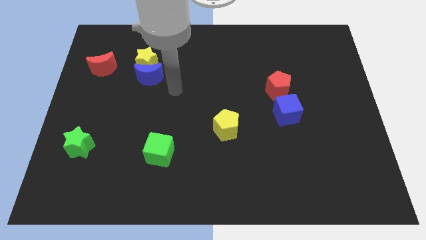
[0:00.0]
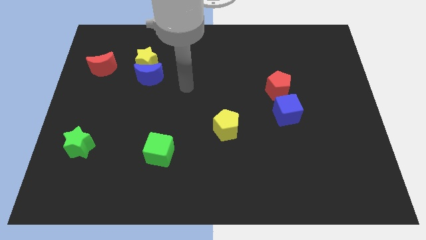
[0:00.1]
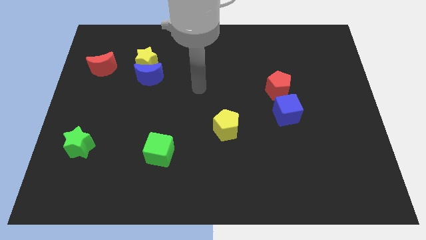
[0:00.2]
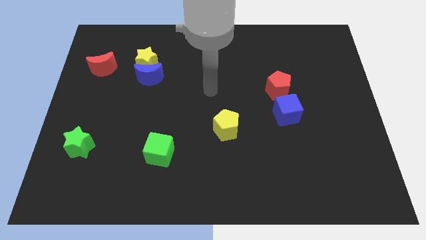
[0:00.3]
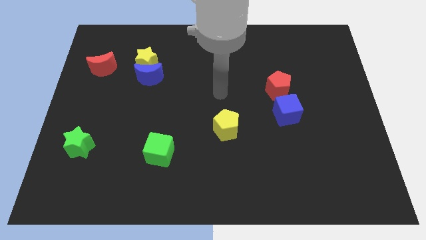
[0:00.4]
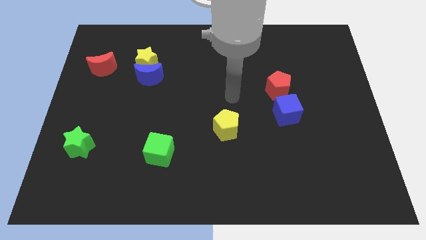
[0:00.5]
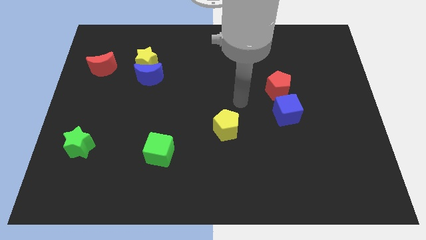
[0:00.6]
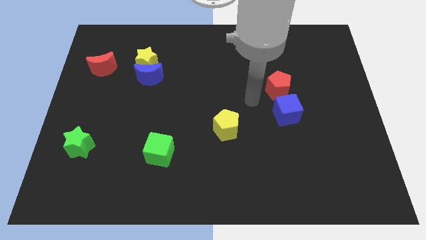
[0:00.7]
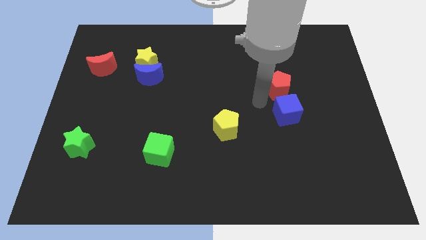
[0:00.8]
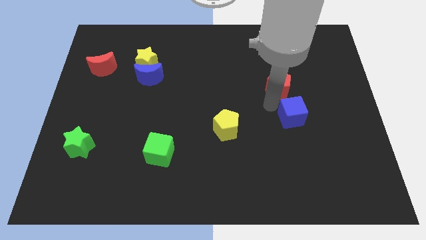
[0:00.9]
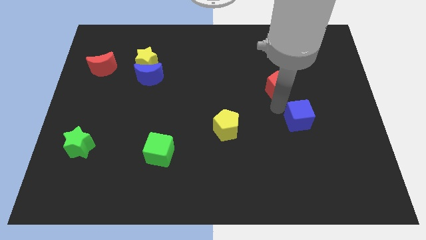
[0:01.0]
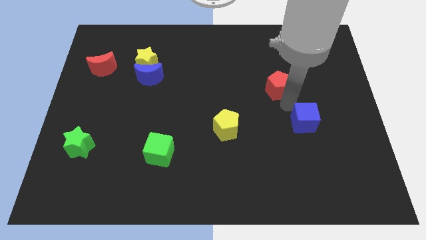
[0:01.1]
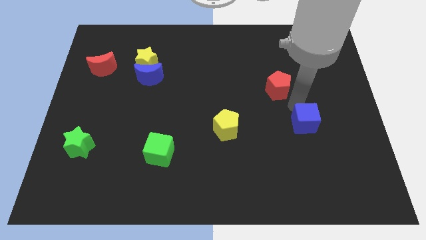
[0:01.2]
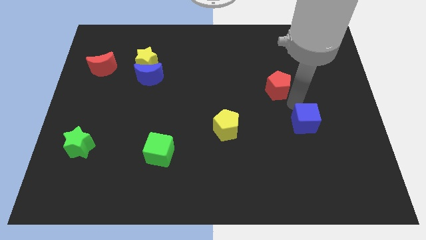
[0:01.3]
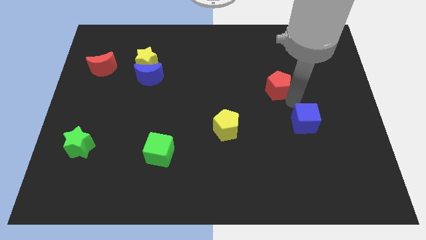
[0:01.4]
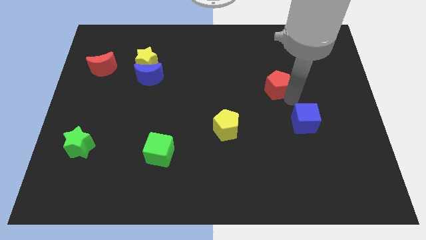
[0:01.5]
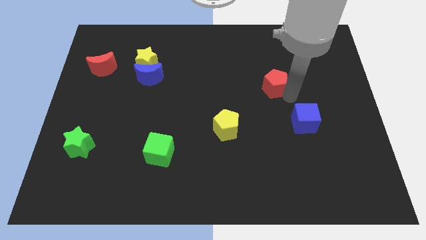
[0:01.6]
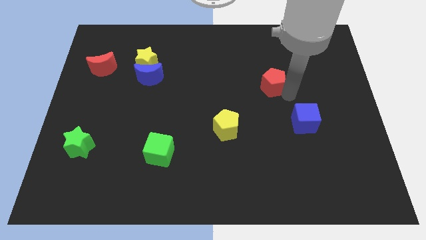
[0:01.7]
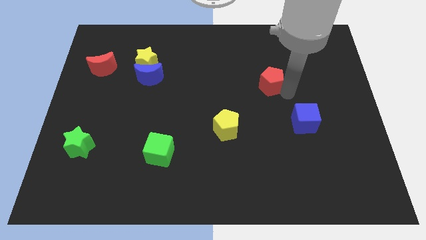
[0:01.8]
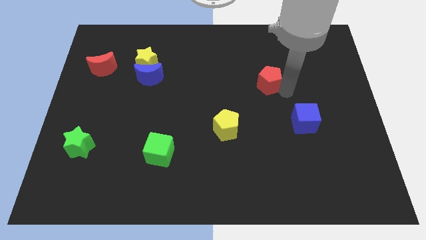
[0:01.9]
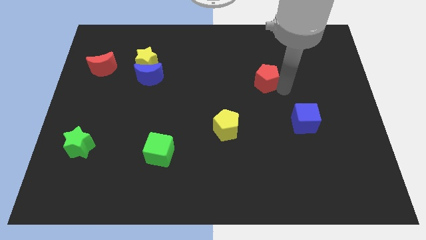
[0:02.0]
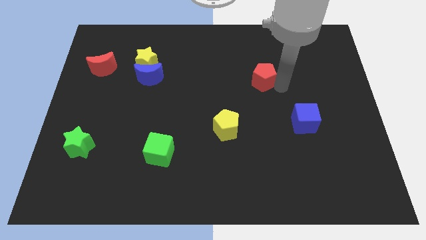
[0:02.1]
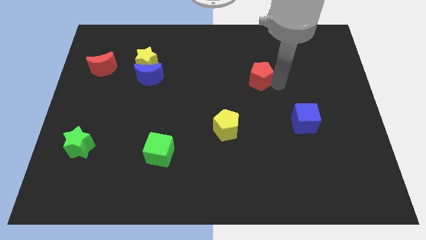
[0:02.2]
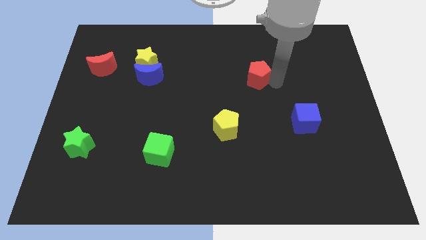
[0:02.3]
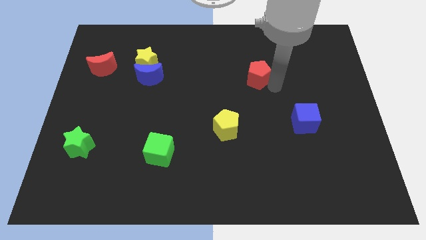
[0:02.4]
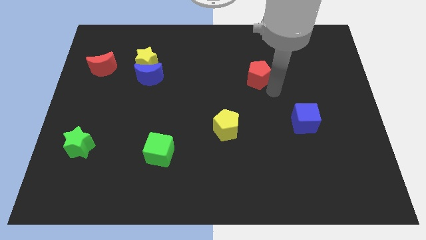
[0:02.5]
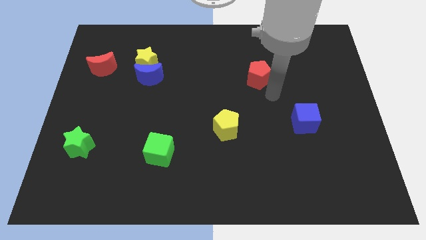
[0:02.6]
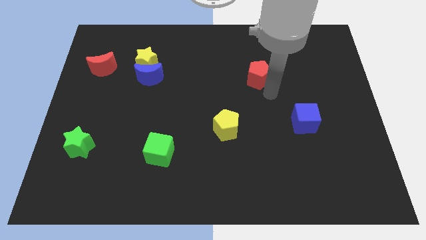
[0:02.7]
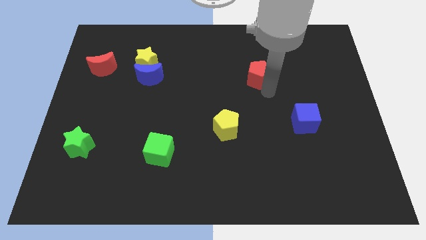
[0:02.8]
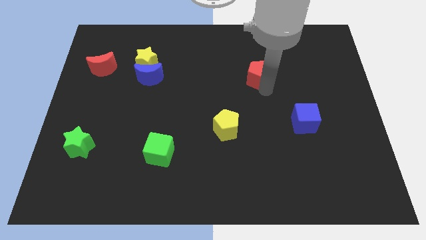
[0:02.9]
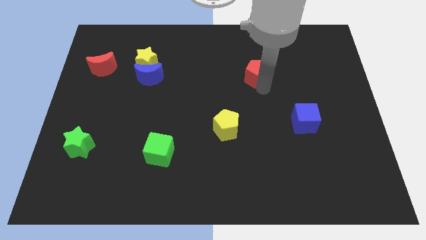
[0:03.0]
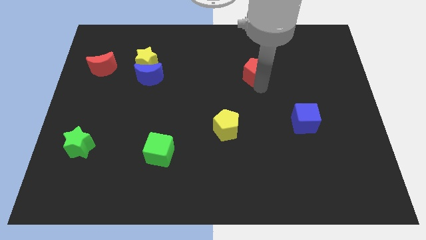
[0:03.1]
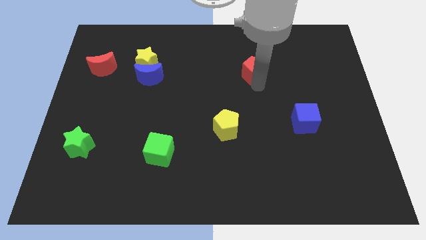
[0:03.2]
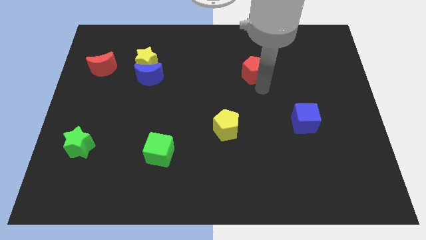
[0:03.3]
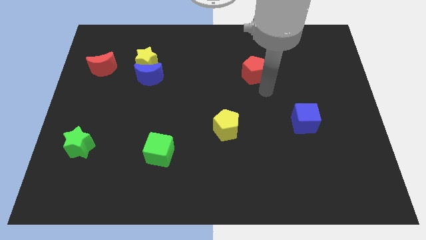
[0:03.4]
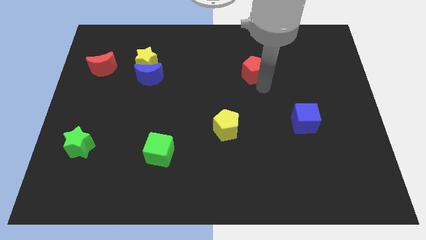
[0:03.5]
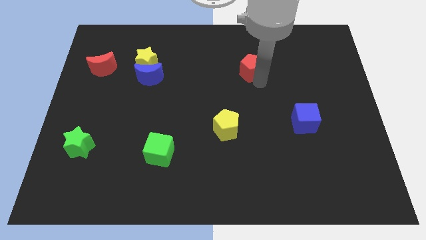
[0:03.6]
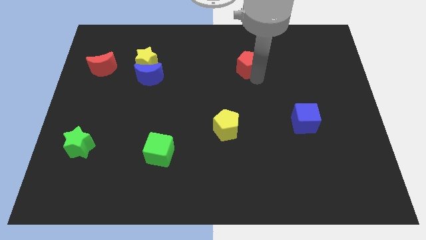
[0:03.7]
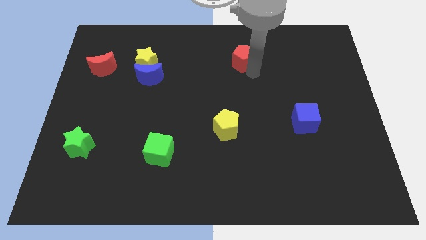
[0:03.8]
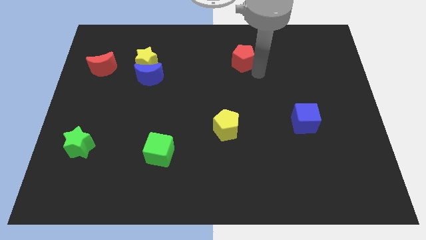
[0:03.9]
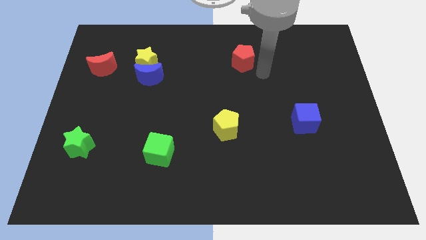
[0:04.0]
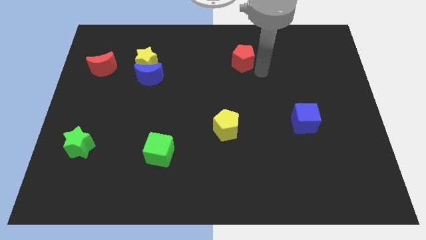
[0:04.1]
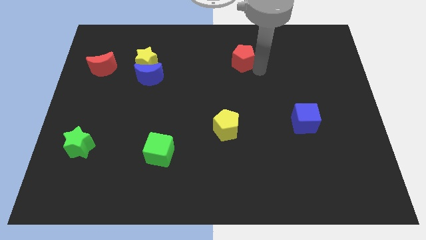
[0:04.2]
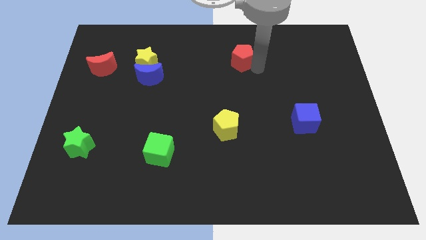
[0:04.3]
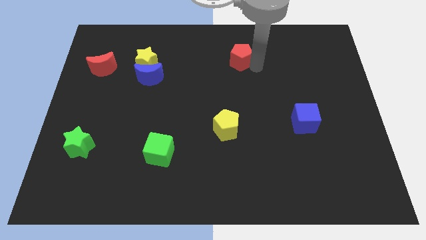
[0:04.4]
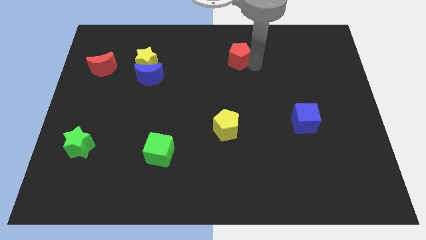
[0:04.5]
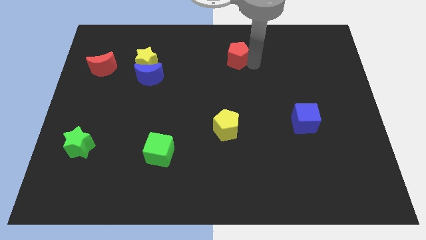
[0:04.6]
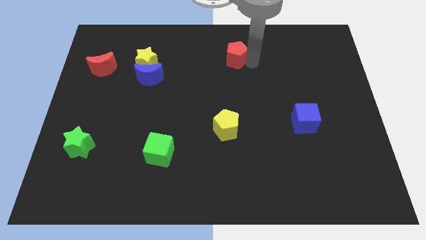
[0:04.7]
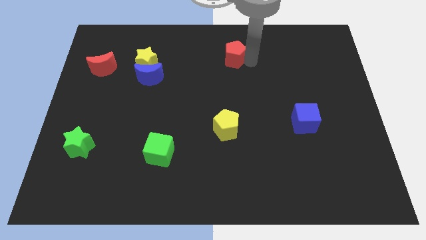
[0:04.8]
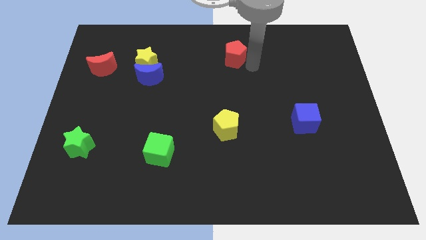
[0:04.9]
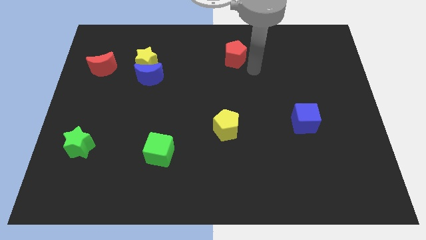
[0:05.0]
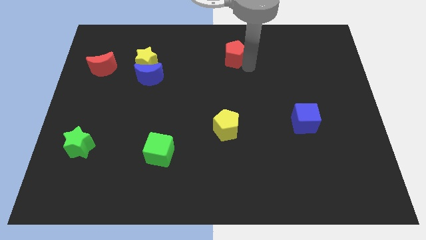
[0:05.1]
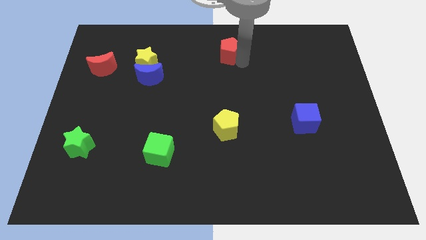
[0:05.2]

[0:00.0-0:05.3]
slide the red pentagon to the top side

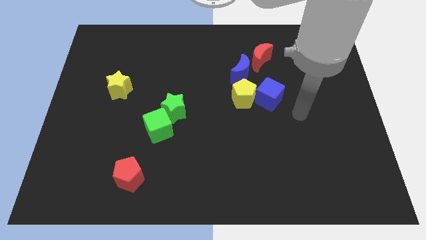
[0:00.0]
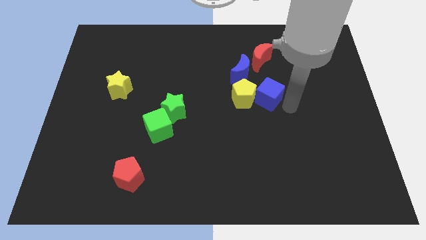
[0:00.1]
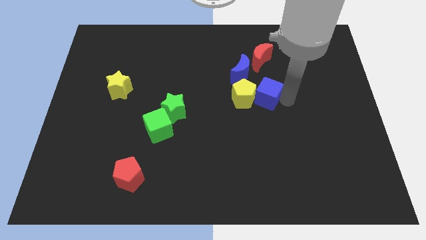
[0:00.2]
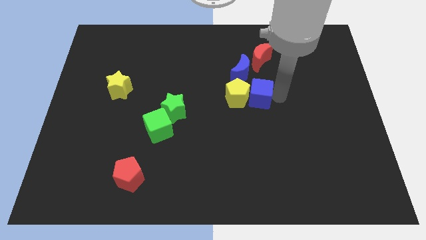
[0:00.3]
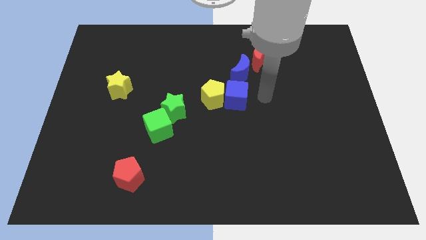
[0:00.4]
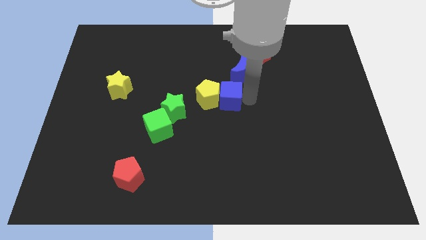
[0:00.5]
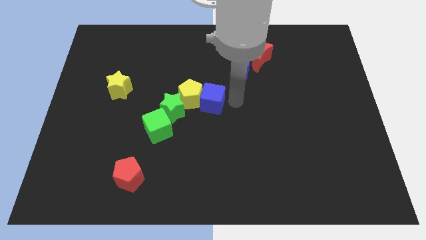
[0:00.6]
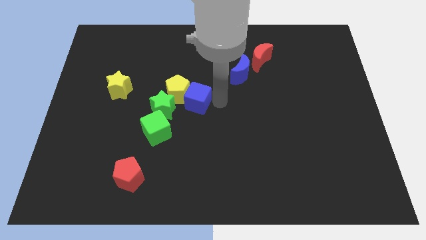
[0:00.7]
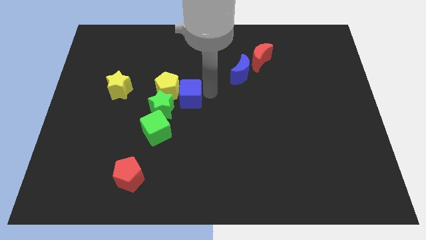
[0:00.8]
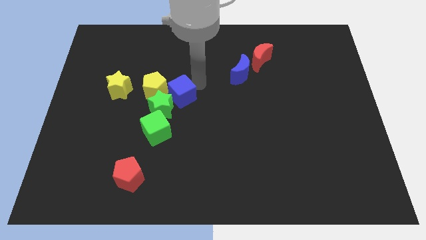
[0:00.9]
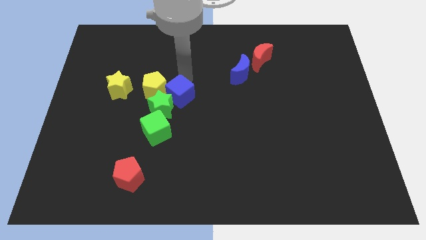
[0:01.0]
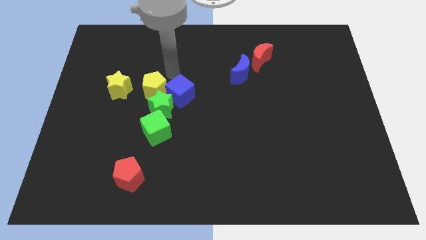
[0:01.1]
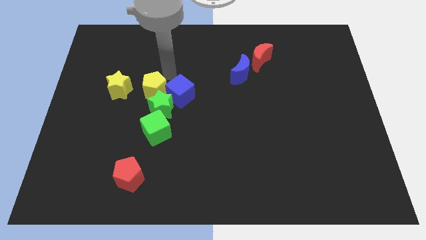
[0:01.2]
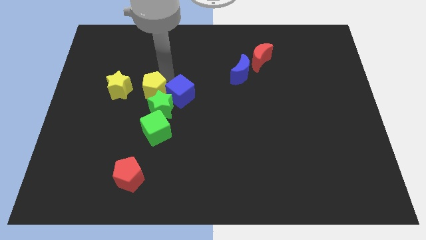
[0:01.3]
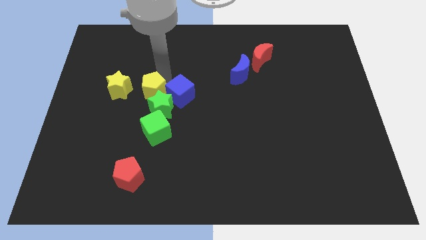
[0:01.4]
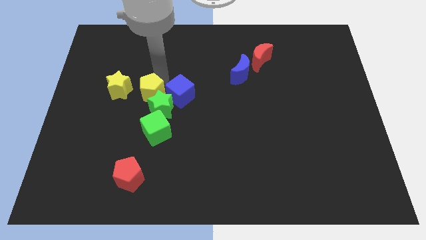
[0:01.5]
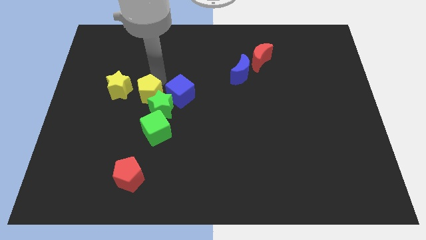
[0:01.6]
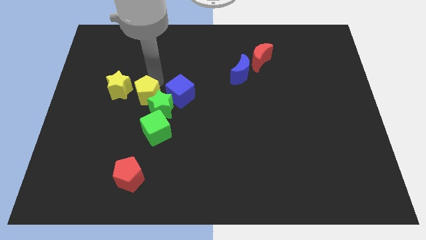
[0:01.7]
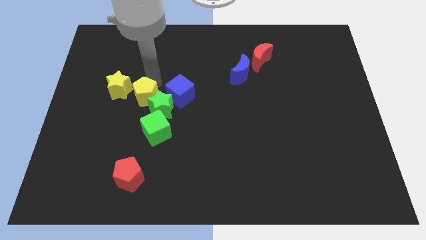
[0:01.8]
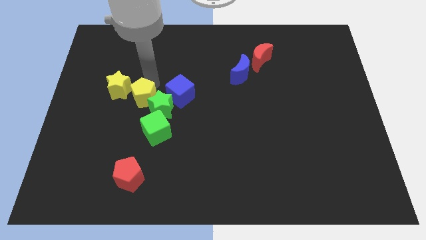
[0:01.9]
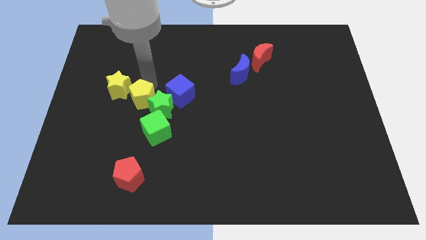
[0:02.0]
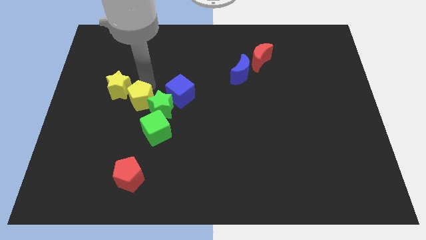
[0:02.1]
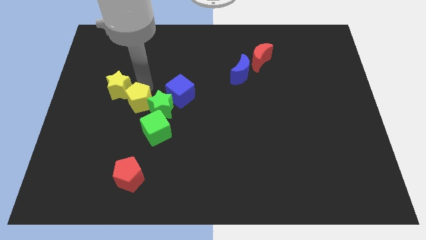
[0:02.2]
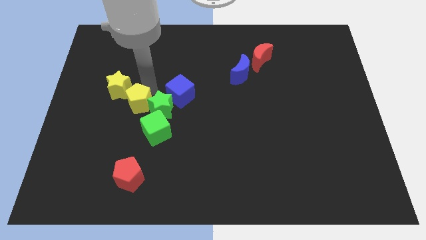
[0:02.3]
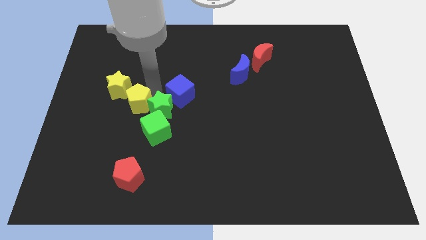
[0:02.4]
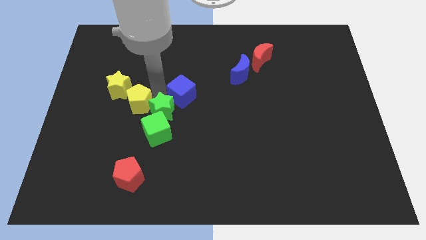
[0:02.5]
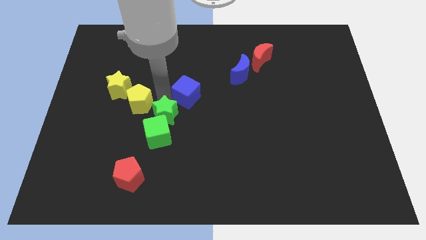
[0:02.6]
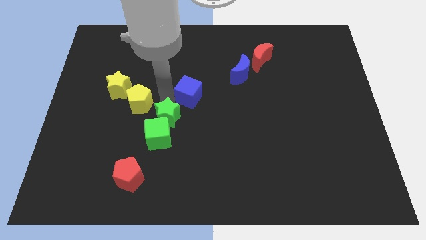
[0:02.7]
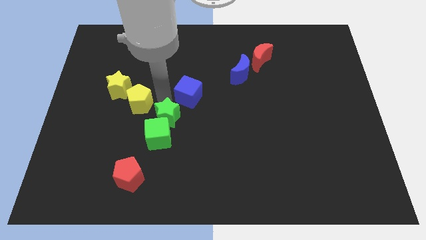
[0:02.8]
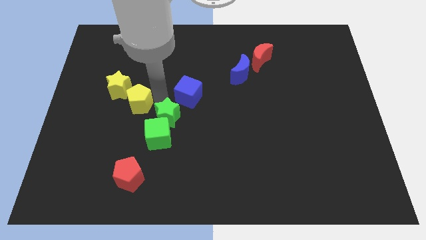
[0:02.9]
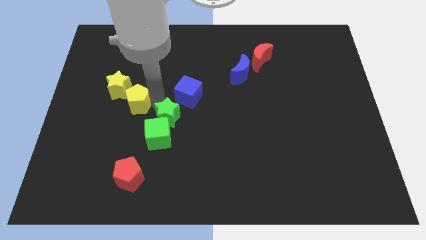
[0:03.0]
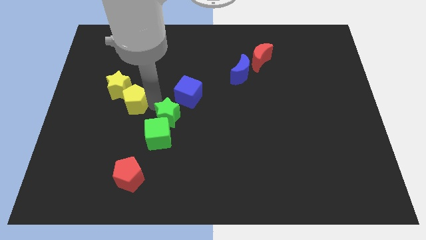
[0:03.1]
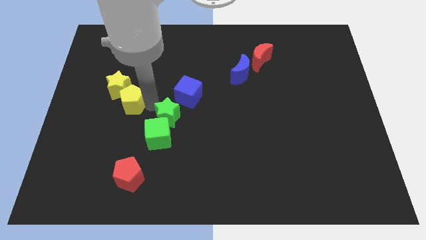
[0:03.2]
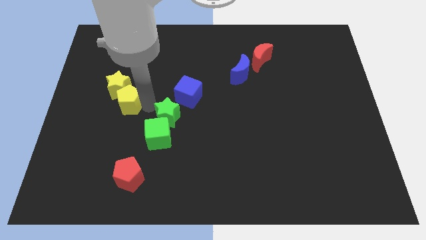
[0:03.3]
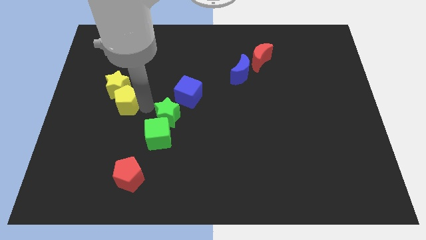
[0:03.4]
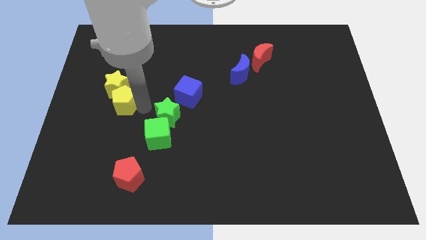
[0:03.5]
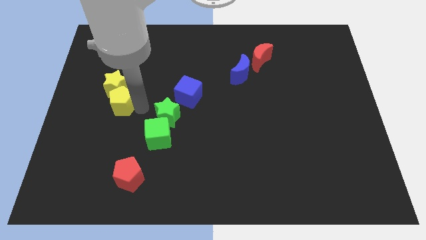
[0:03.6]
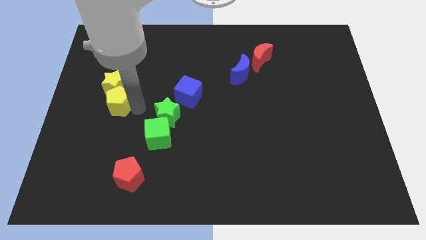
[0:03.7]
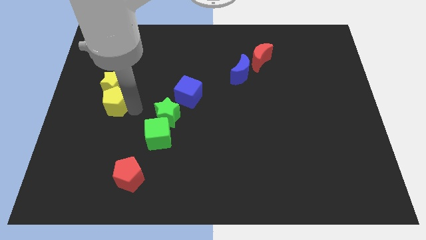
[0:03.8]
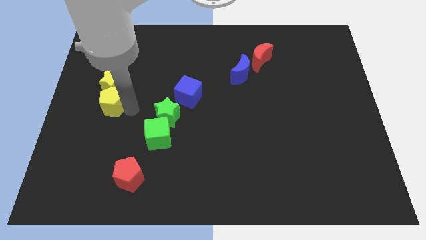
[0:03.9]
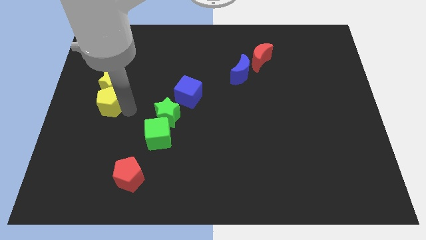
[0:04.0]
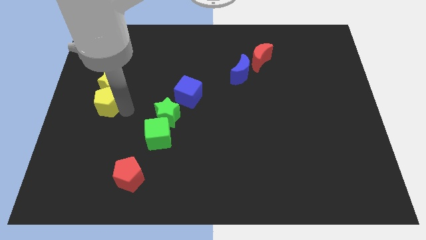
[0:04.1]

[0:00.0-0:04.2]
push the yellow pentagon to the left side of the board
